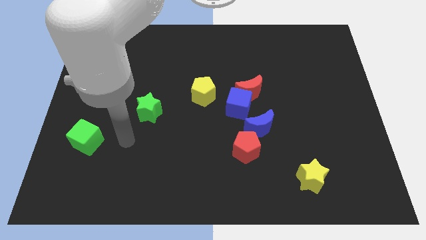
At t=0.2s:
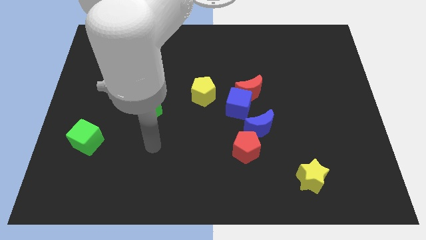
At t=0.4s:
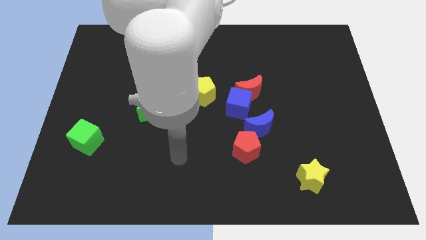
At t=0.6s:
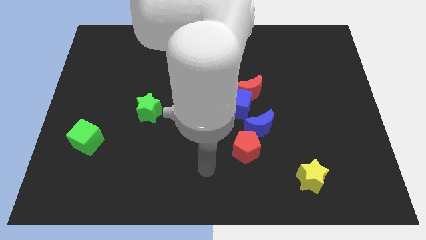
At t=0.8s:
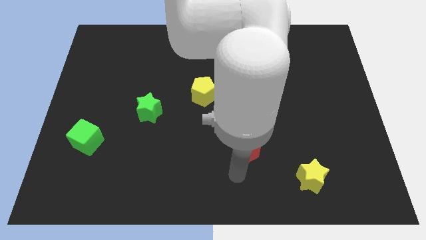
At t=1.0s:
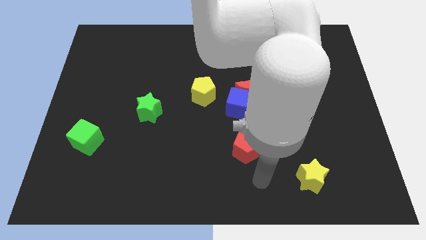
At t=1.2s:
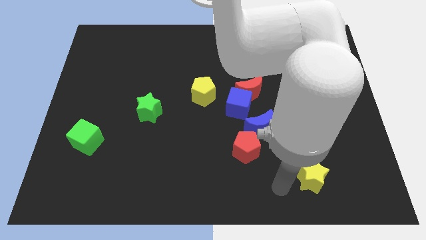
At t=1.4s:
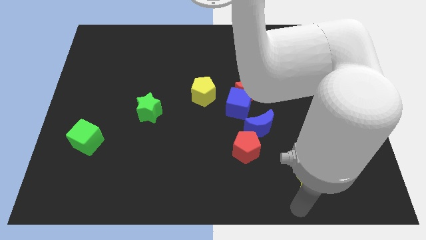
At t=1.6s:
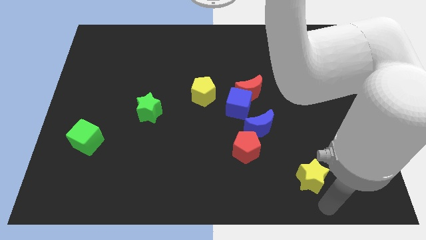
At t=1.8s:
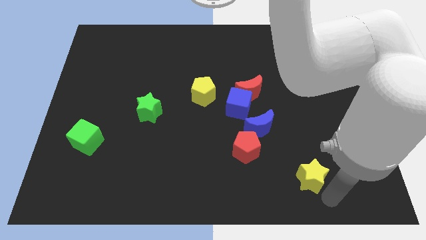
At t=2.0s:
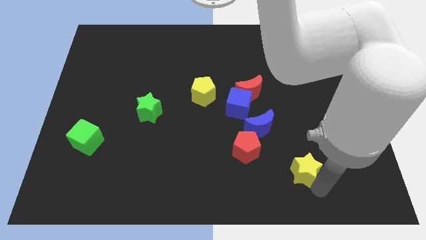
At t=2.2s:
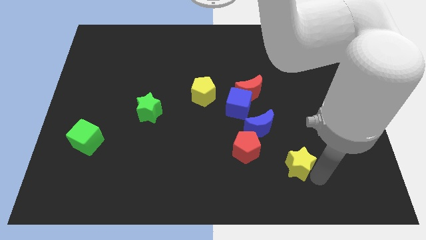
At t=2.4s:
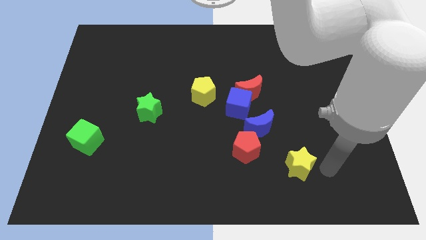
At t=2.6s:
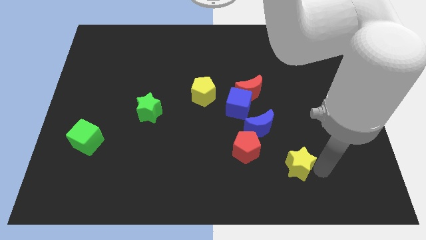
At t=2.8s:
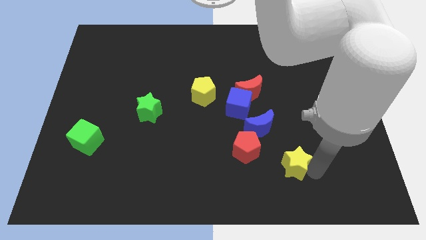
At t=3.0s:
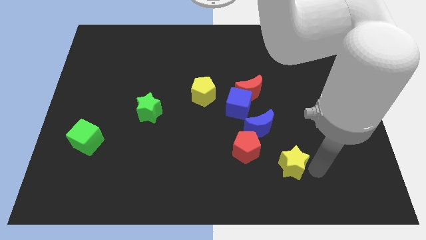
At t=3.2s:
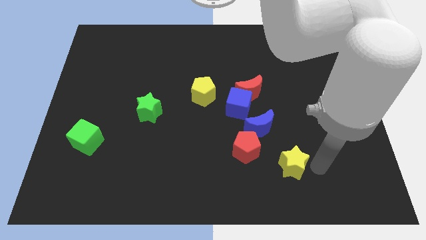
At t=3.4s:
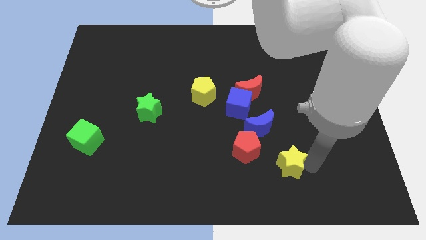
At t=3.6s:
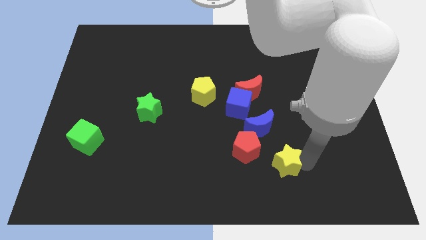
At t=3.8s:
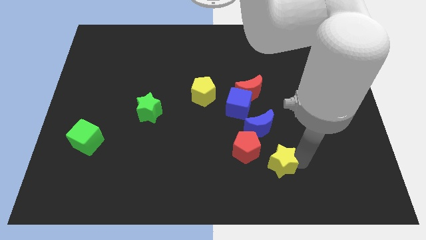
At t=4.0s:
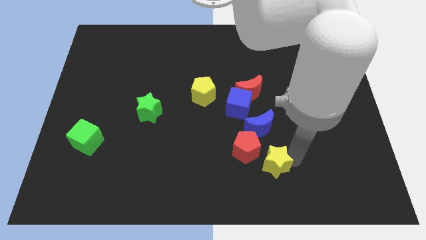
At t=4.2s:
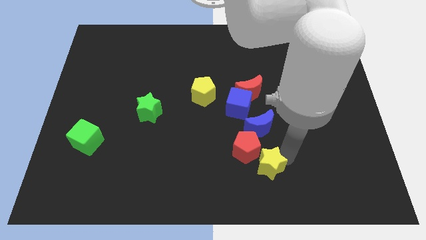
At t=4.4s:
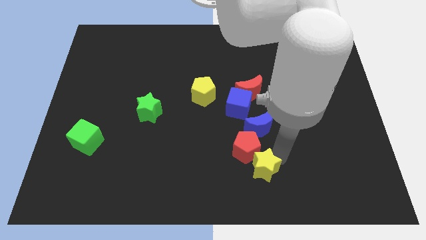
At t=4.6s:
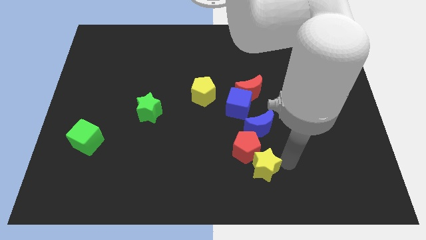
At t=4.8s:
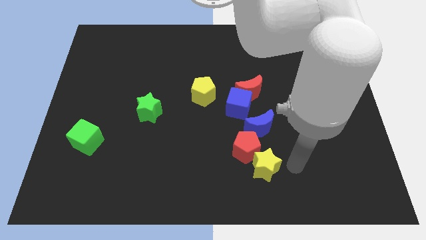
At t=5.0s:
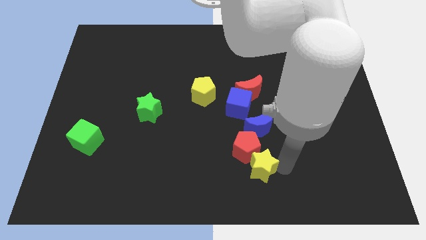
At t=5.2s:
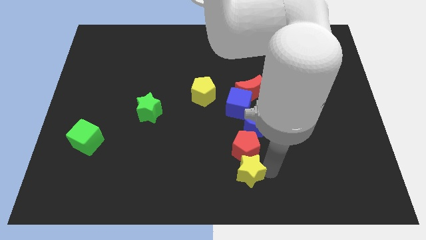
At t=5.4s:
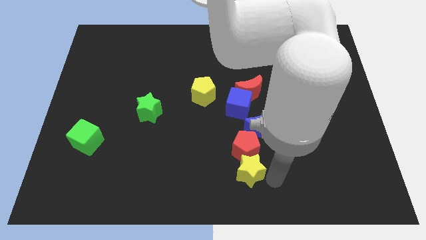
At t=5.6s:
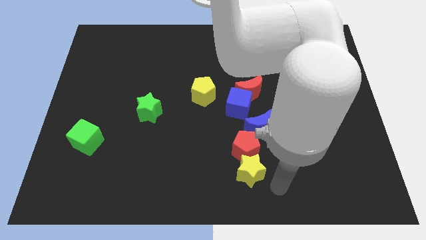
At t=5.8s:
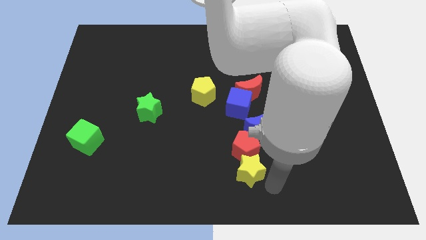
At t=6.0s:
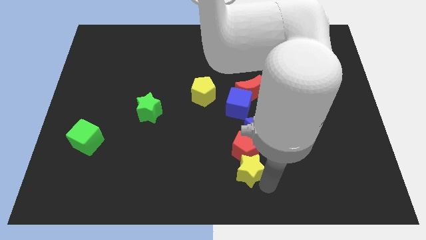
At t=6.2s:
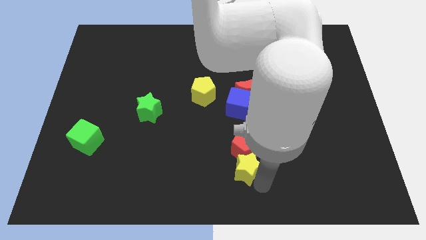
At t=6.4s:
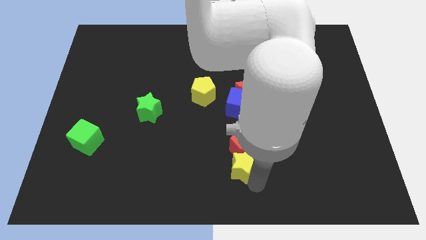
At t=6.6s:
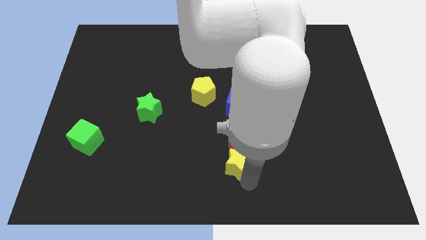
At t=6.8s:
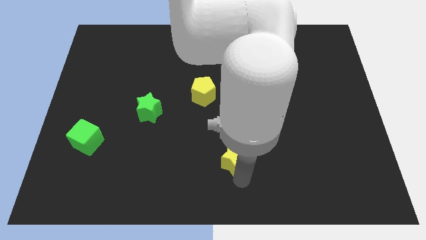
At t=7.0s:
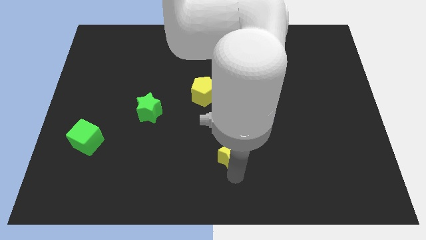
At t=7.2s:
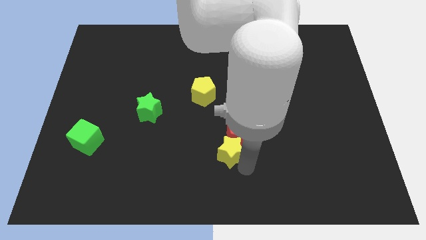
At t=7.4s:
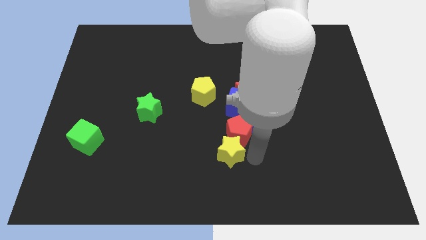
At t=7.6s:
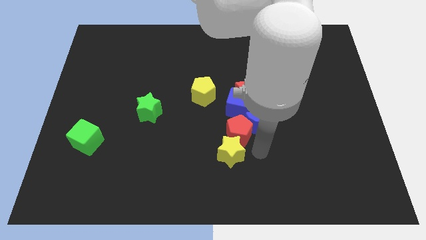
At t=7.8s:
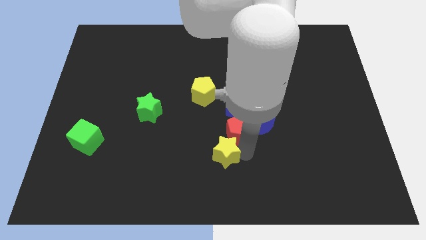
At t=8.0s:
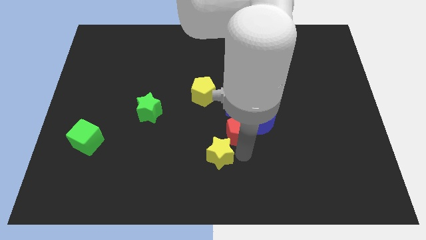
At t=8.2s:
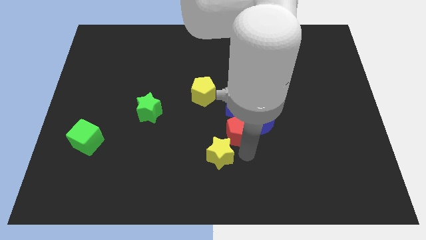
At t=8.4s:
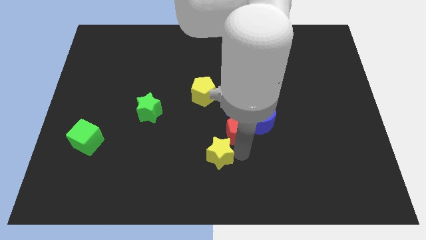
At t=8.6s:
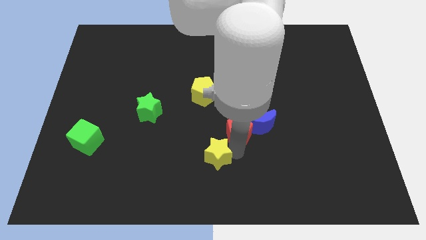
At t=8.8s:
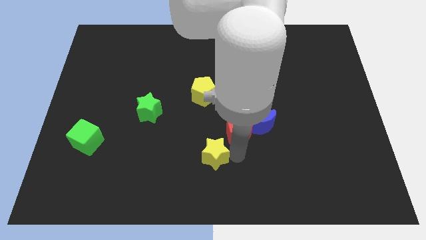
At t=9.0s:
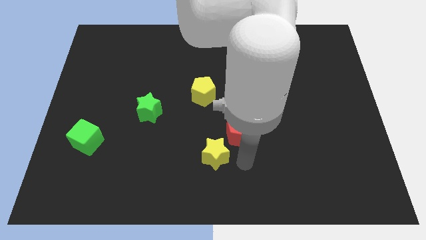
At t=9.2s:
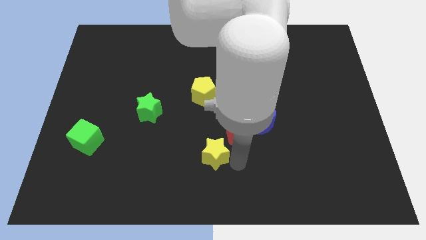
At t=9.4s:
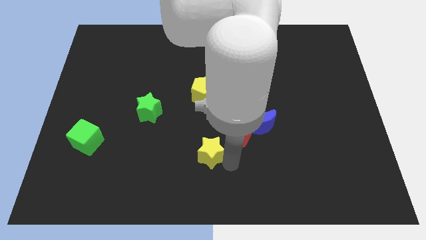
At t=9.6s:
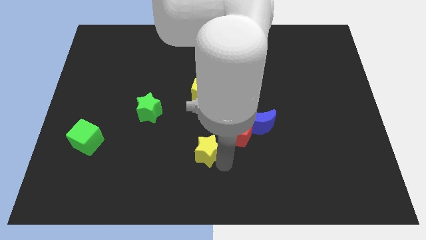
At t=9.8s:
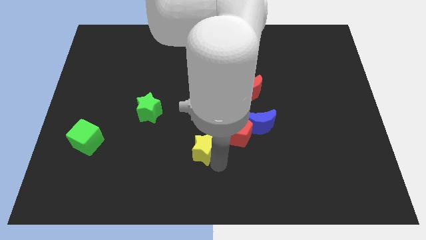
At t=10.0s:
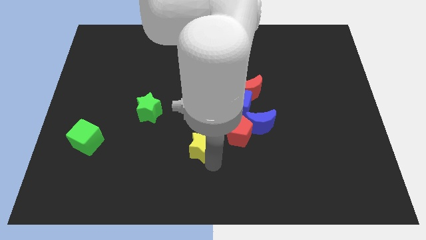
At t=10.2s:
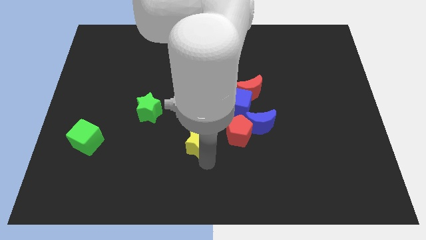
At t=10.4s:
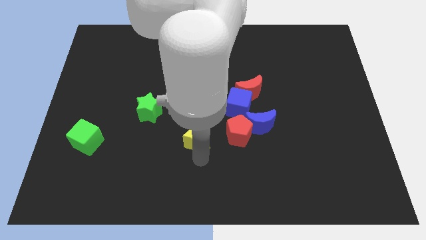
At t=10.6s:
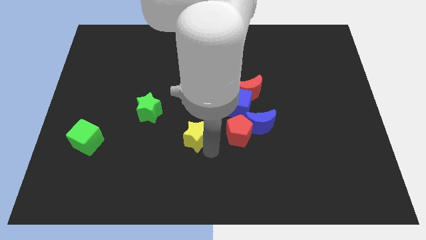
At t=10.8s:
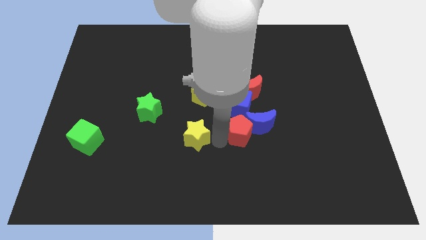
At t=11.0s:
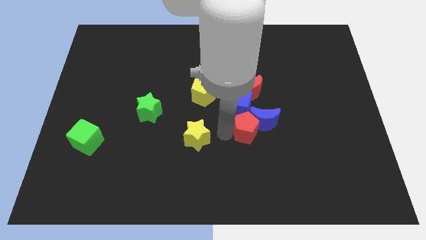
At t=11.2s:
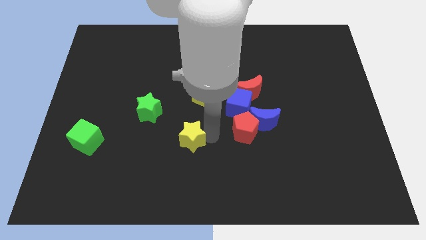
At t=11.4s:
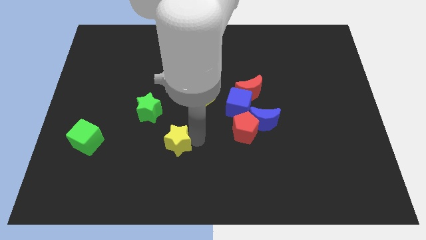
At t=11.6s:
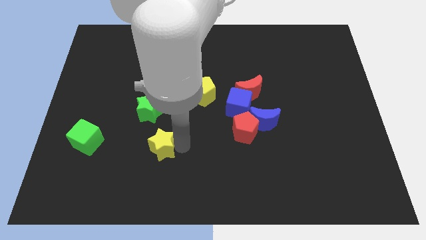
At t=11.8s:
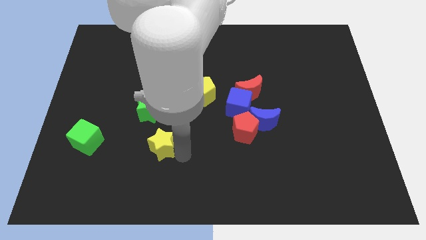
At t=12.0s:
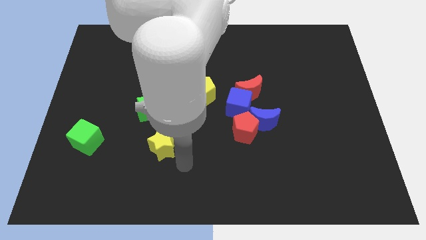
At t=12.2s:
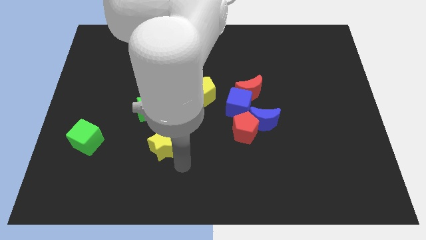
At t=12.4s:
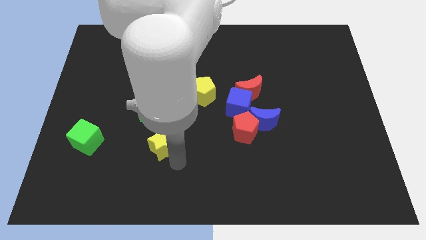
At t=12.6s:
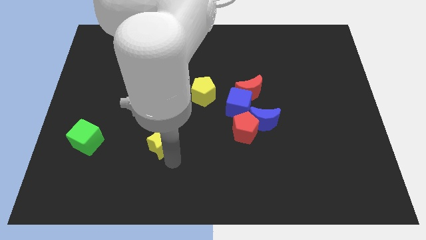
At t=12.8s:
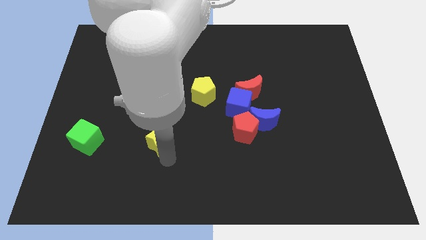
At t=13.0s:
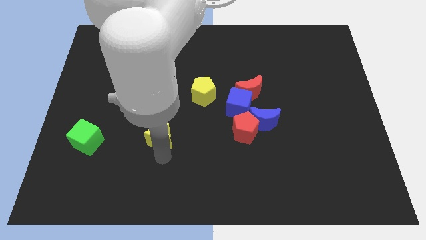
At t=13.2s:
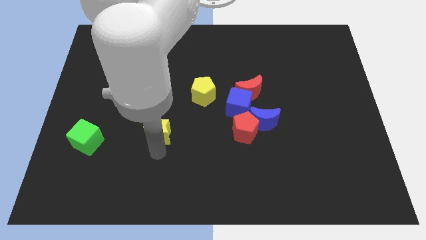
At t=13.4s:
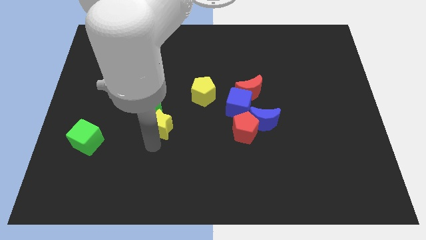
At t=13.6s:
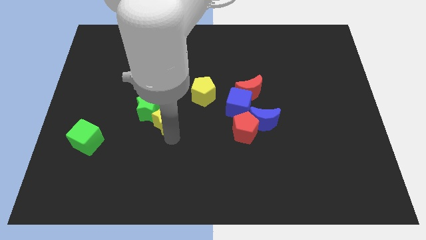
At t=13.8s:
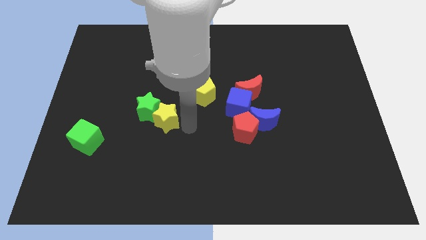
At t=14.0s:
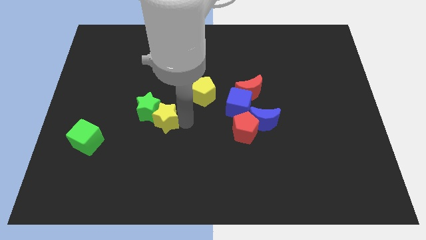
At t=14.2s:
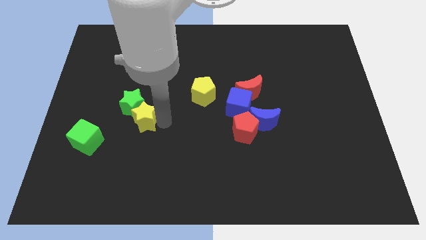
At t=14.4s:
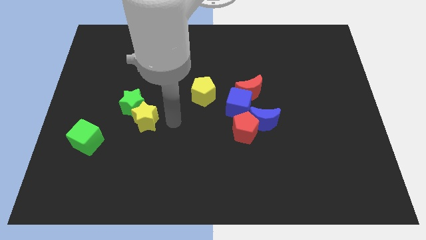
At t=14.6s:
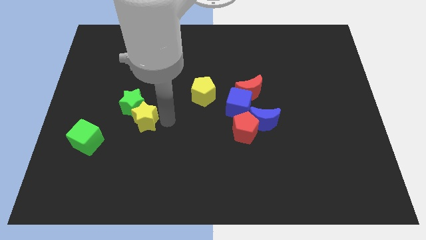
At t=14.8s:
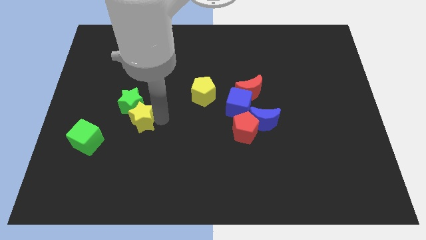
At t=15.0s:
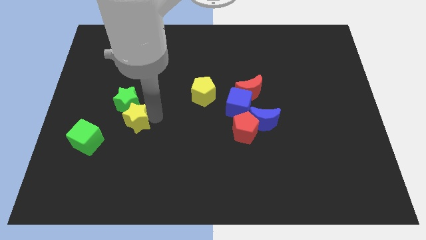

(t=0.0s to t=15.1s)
push the yellow star diagonally up and to the right of the green cube
